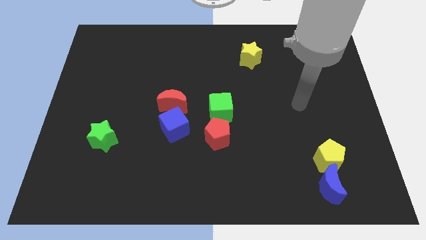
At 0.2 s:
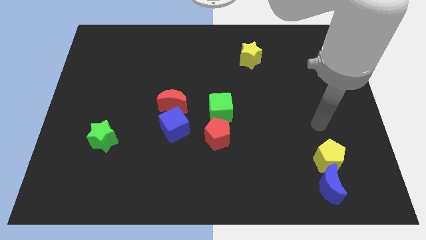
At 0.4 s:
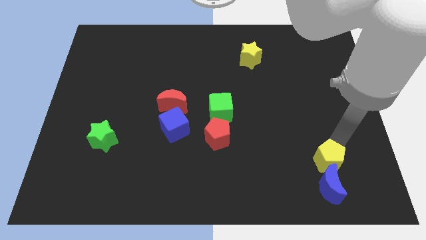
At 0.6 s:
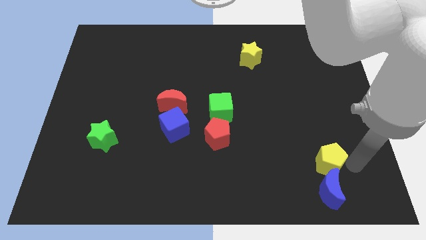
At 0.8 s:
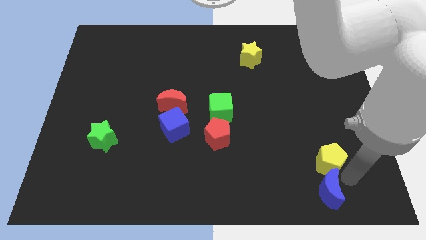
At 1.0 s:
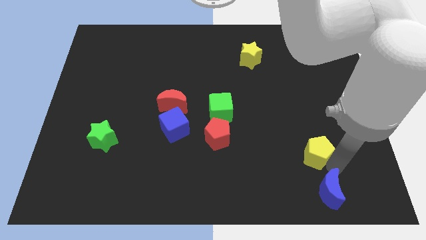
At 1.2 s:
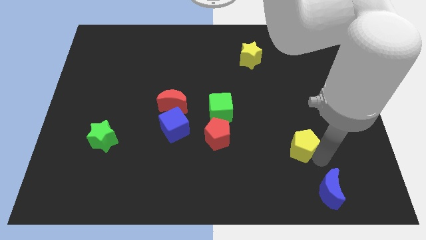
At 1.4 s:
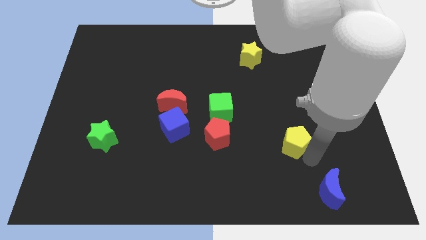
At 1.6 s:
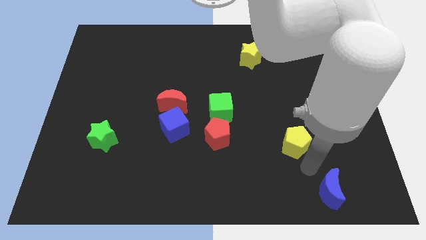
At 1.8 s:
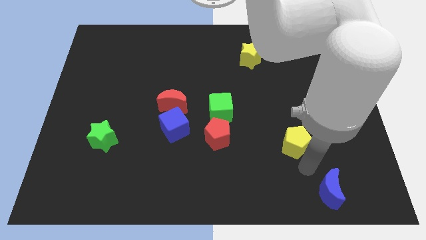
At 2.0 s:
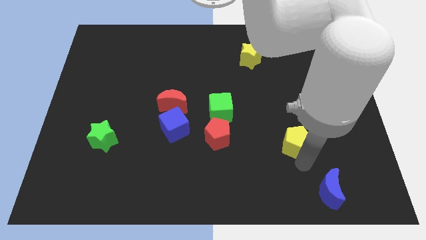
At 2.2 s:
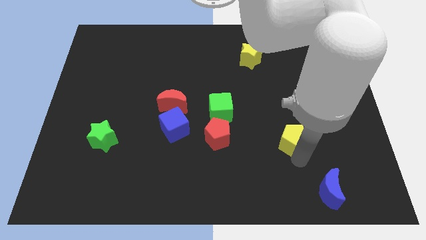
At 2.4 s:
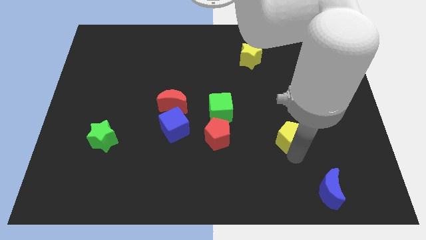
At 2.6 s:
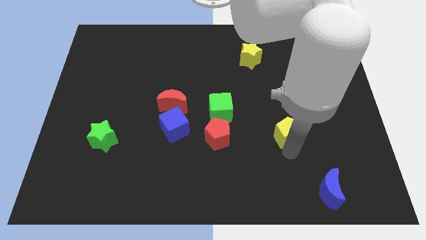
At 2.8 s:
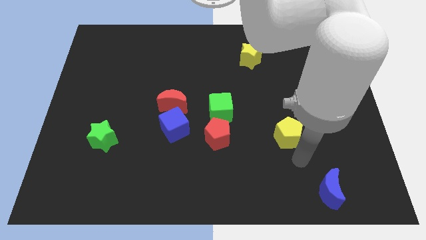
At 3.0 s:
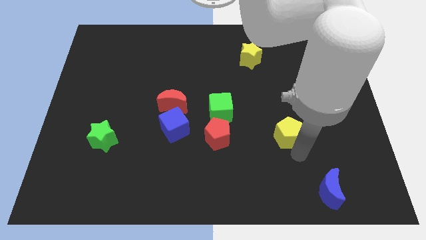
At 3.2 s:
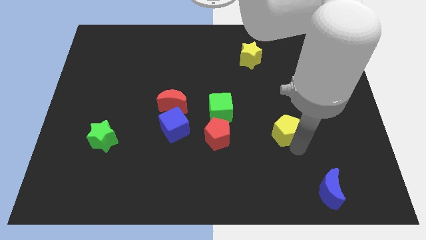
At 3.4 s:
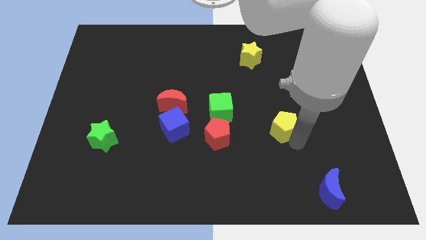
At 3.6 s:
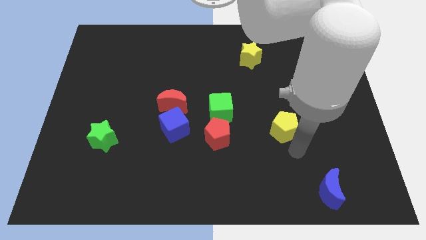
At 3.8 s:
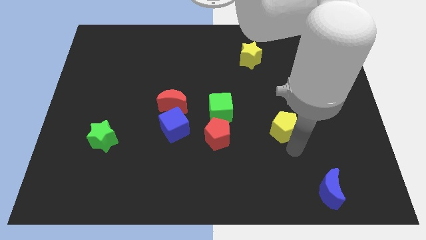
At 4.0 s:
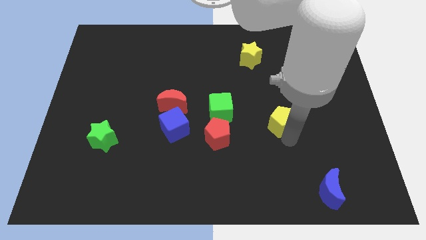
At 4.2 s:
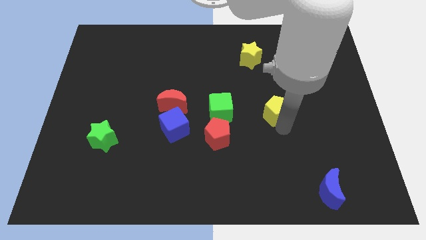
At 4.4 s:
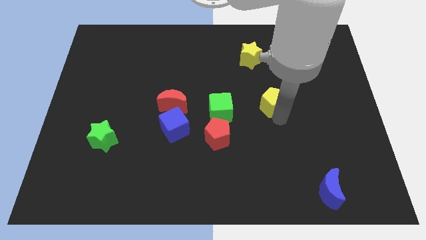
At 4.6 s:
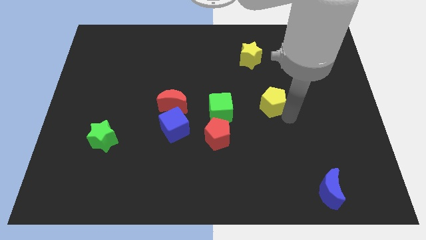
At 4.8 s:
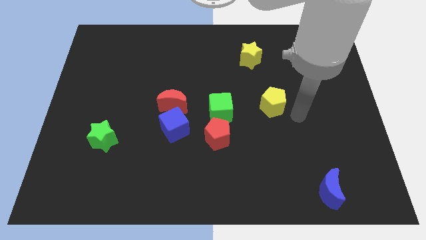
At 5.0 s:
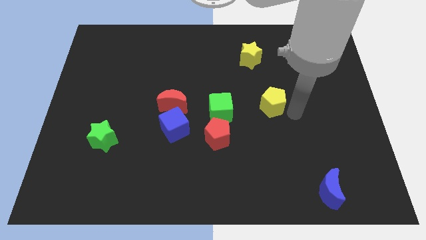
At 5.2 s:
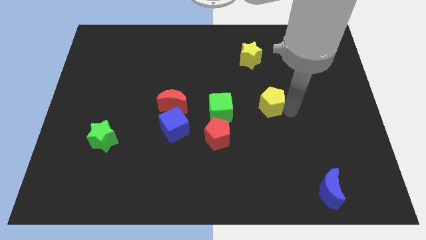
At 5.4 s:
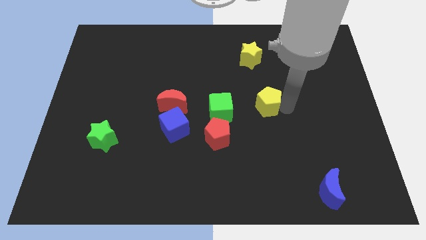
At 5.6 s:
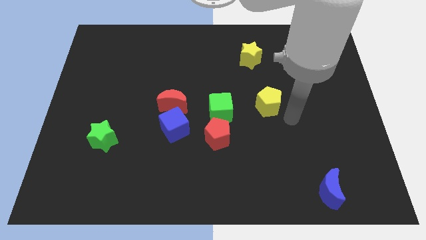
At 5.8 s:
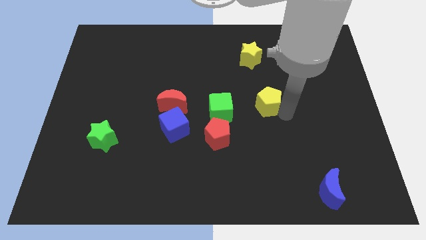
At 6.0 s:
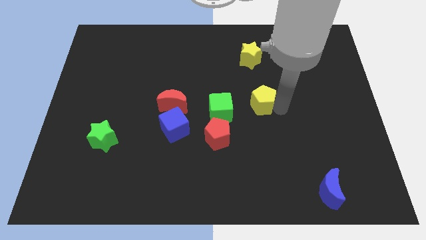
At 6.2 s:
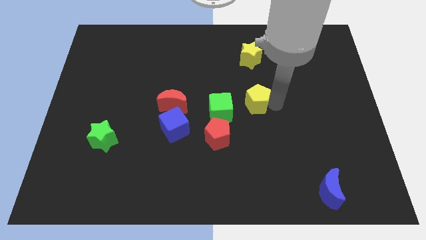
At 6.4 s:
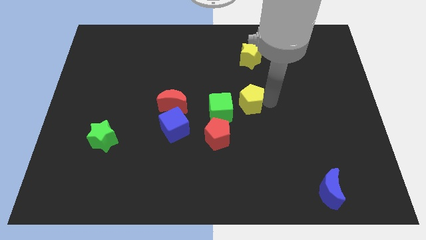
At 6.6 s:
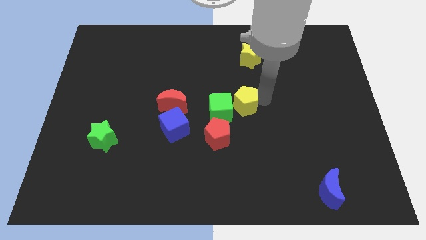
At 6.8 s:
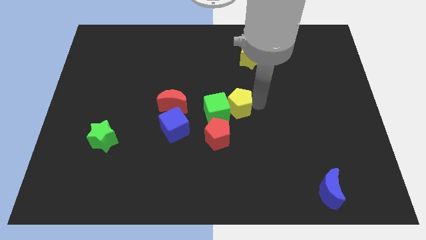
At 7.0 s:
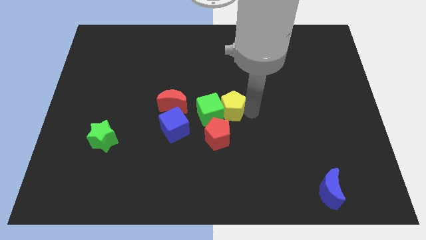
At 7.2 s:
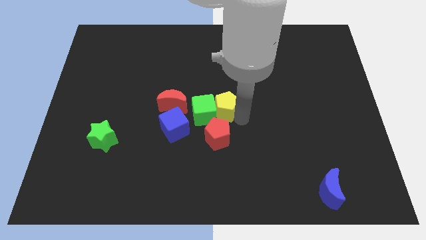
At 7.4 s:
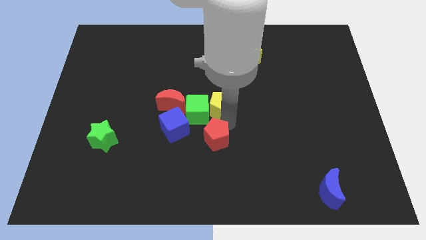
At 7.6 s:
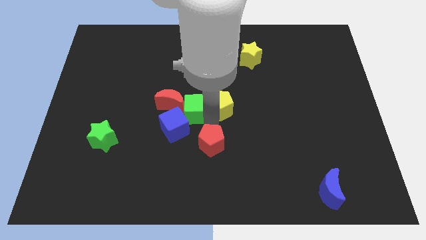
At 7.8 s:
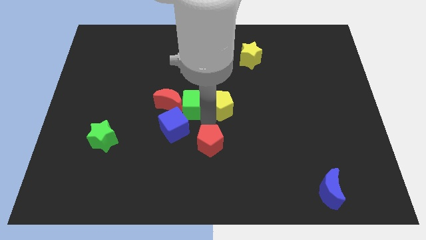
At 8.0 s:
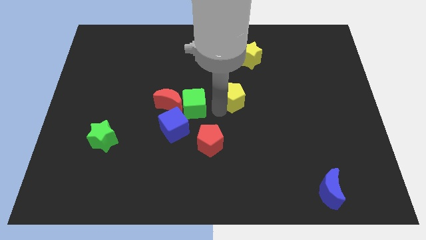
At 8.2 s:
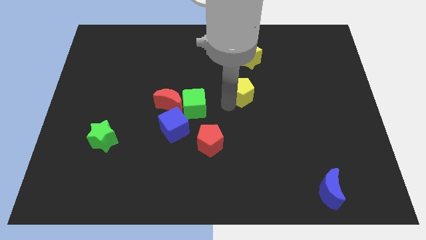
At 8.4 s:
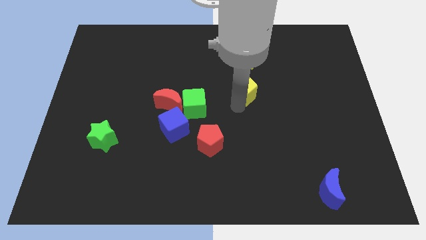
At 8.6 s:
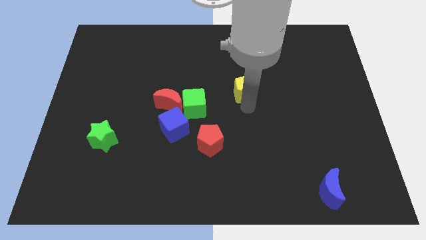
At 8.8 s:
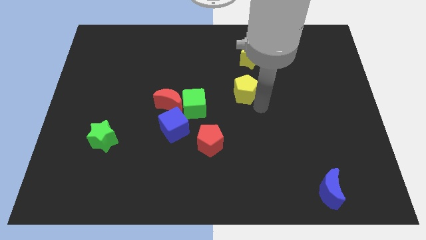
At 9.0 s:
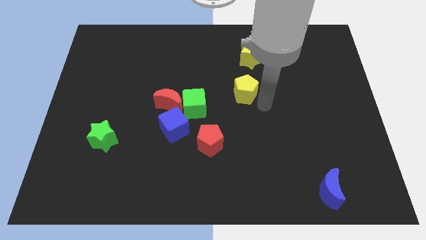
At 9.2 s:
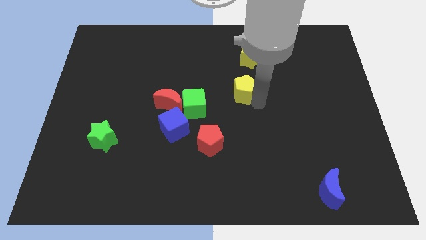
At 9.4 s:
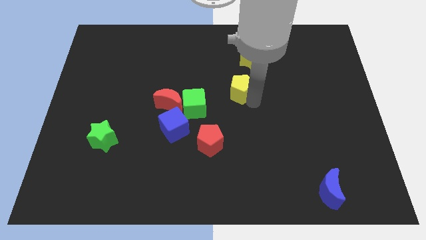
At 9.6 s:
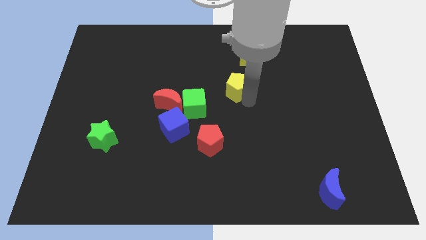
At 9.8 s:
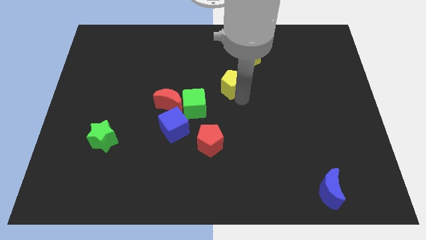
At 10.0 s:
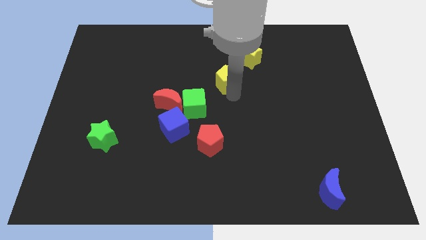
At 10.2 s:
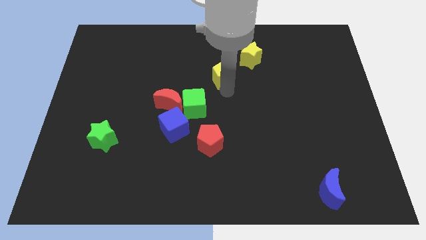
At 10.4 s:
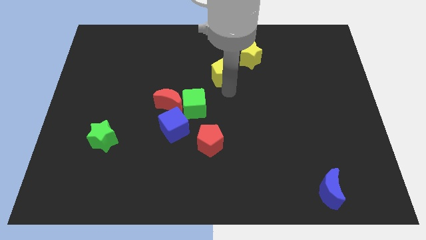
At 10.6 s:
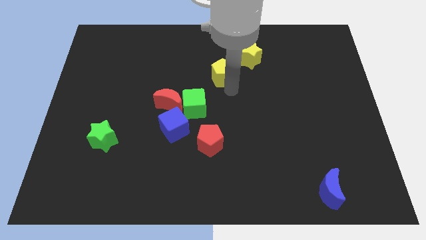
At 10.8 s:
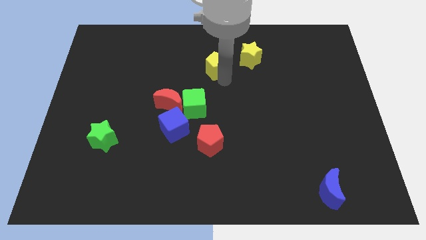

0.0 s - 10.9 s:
put the yellow pentagon to the left side of the yellow star

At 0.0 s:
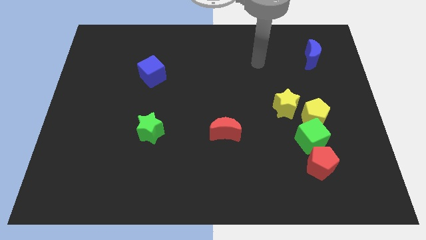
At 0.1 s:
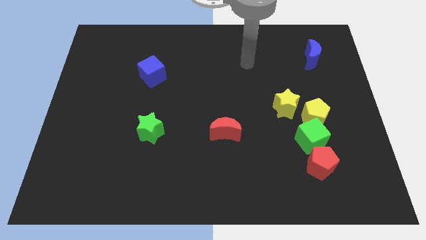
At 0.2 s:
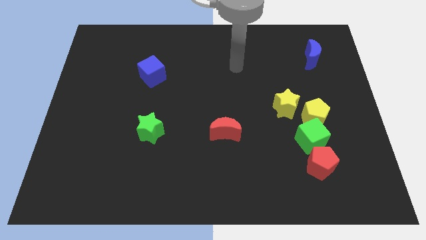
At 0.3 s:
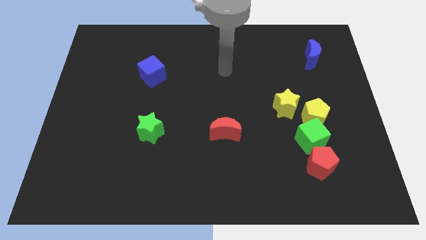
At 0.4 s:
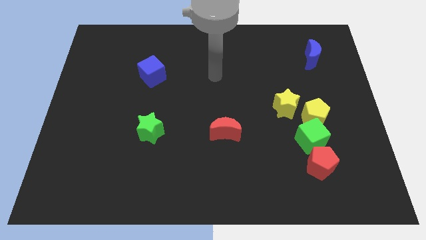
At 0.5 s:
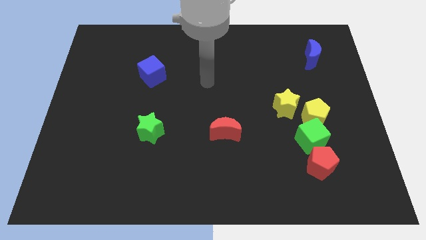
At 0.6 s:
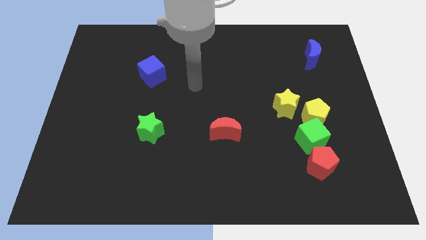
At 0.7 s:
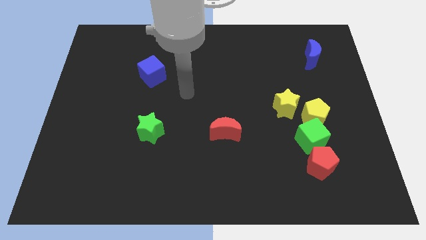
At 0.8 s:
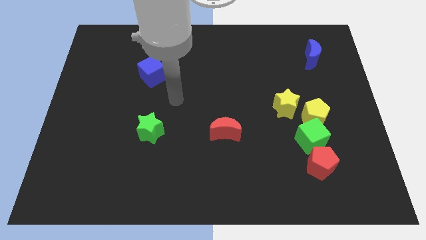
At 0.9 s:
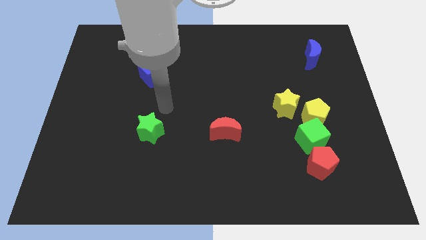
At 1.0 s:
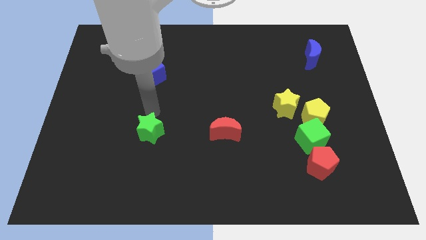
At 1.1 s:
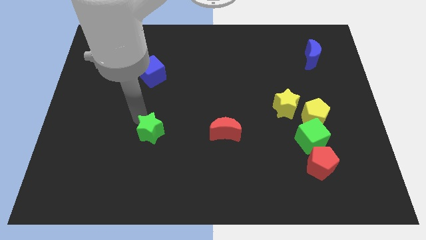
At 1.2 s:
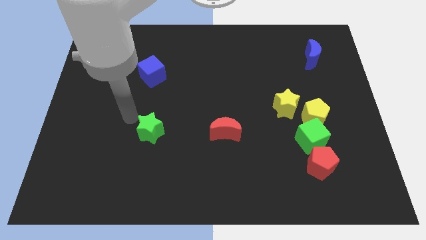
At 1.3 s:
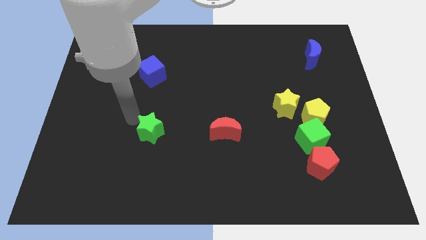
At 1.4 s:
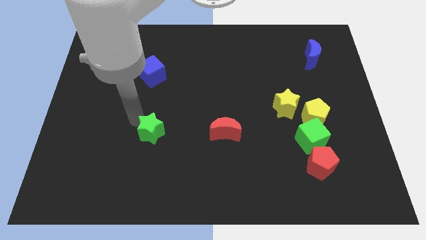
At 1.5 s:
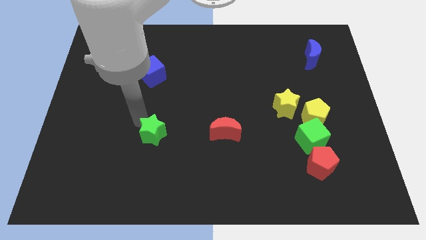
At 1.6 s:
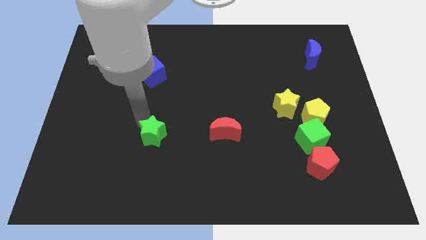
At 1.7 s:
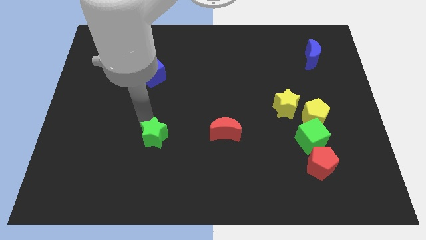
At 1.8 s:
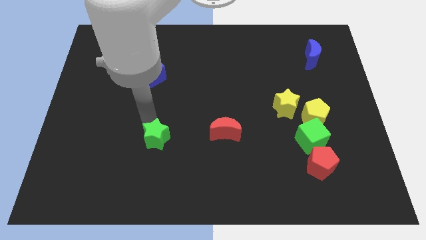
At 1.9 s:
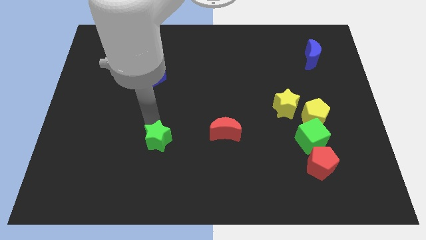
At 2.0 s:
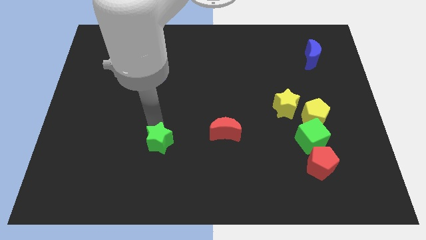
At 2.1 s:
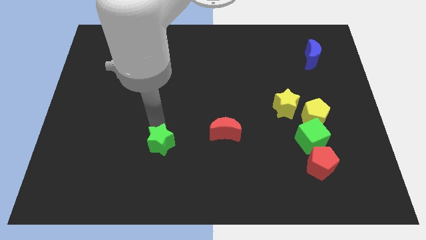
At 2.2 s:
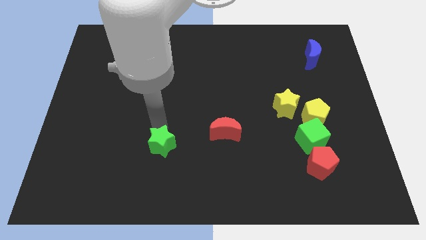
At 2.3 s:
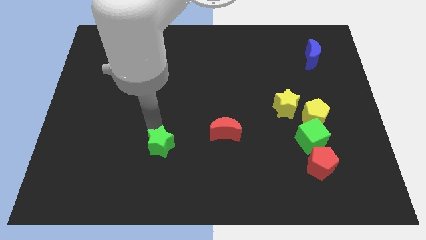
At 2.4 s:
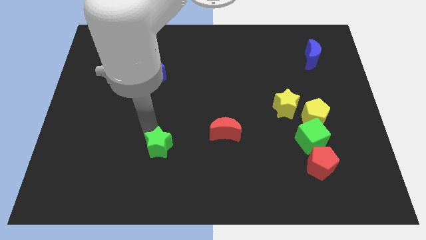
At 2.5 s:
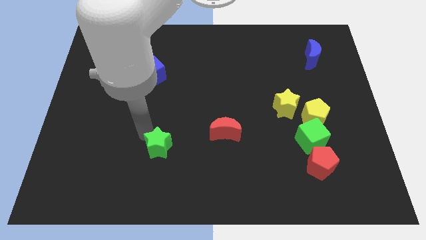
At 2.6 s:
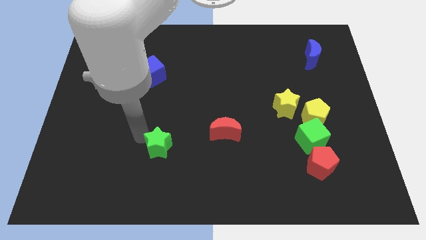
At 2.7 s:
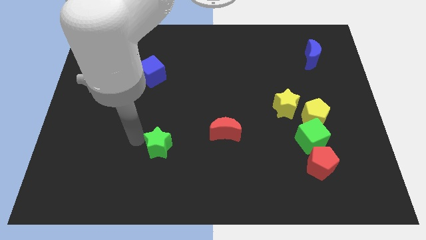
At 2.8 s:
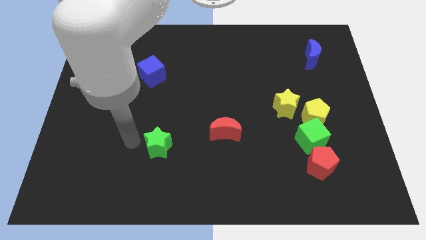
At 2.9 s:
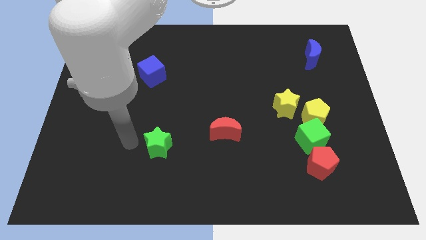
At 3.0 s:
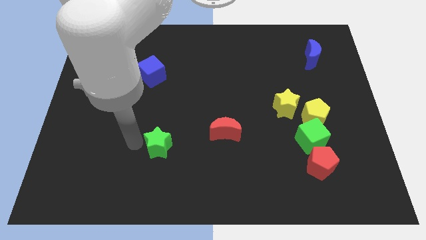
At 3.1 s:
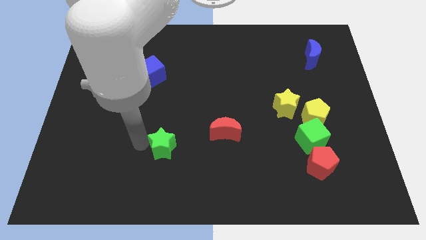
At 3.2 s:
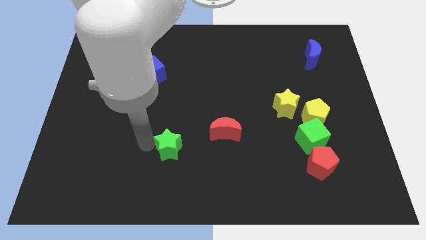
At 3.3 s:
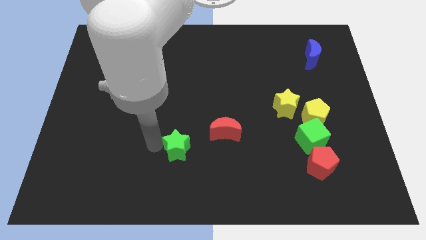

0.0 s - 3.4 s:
put the green star diagonally down and to the left of the red moon
